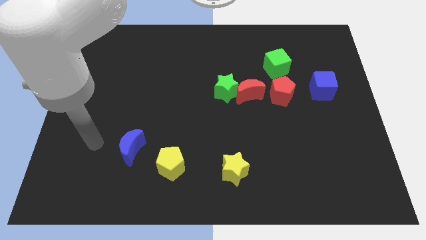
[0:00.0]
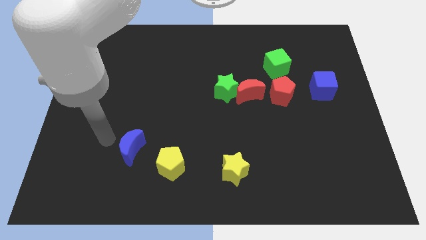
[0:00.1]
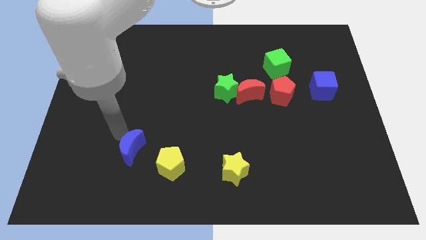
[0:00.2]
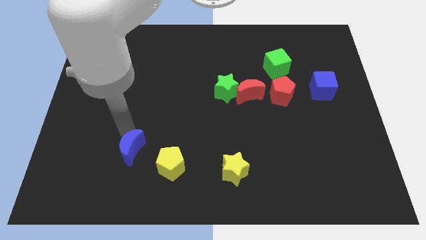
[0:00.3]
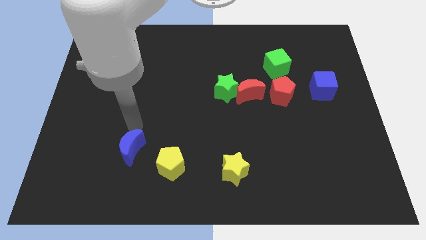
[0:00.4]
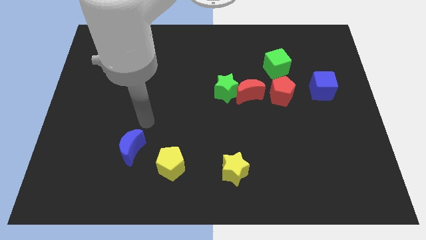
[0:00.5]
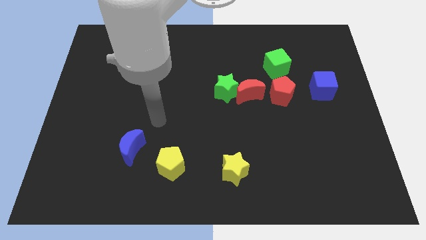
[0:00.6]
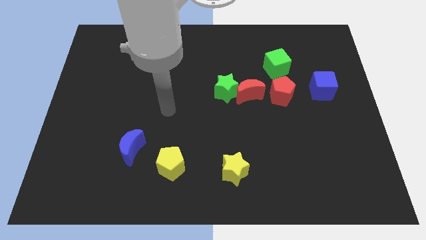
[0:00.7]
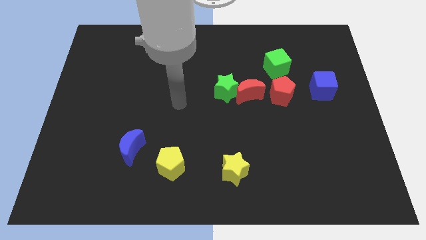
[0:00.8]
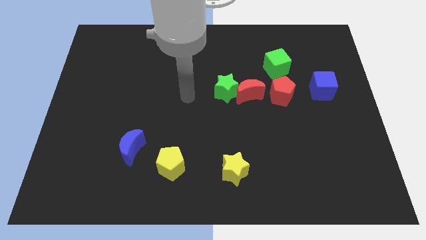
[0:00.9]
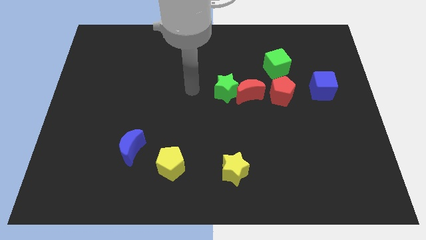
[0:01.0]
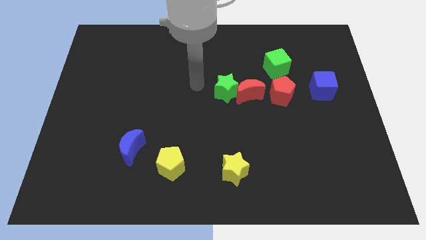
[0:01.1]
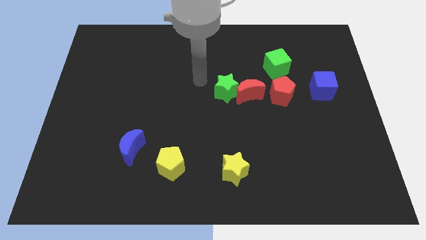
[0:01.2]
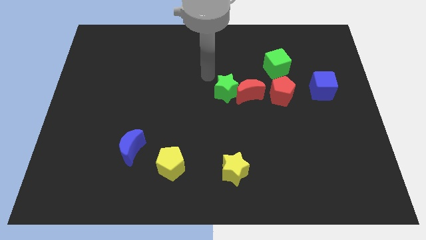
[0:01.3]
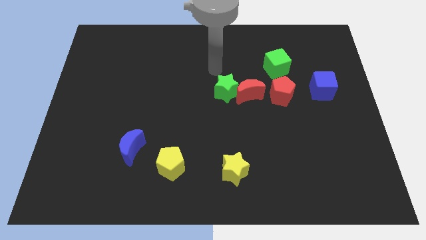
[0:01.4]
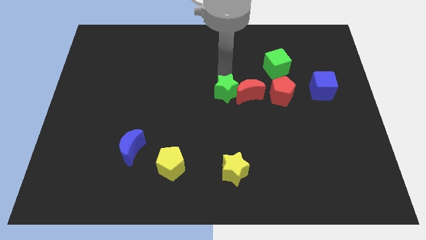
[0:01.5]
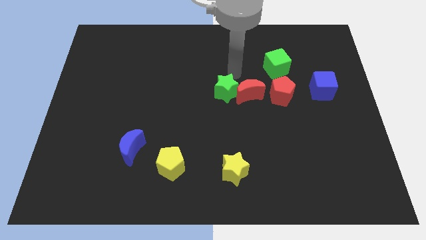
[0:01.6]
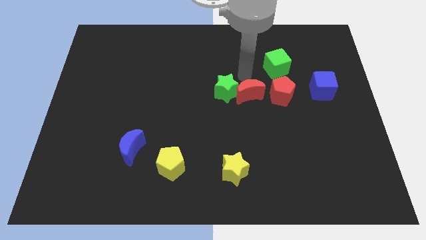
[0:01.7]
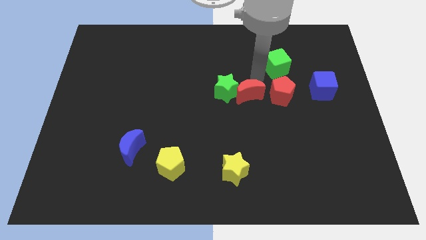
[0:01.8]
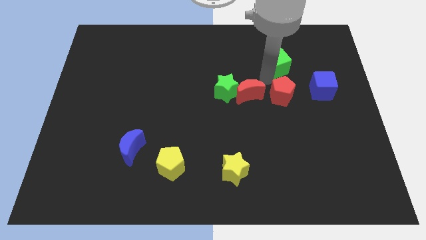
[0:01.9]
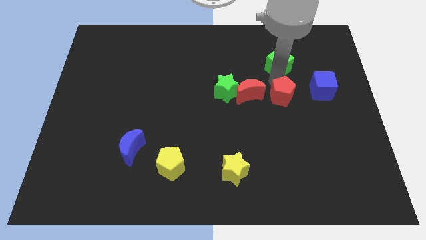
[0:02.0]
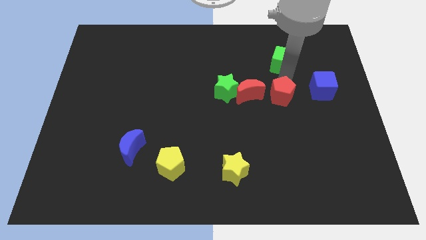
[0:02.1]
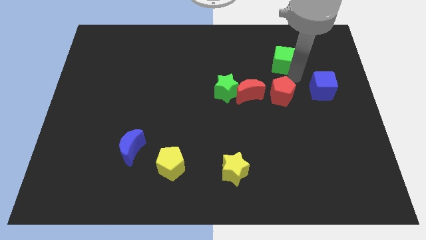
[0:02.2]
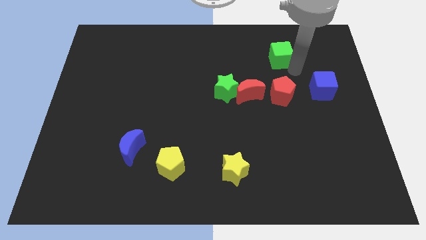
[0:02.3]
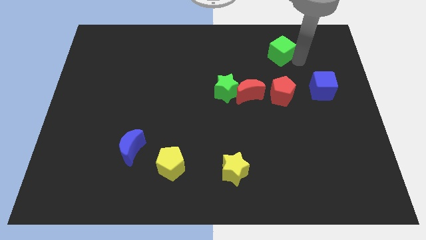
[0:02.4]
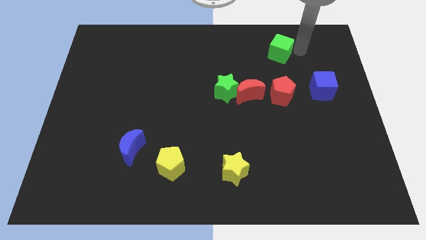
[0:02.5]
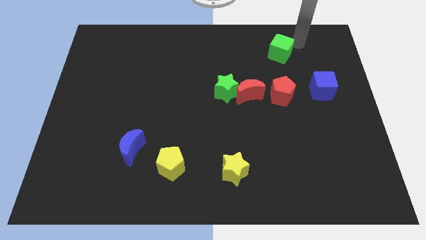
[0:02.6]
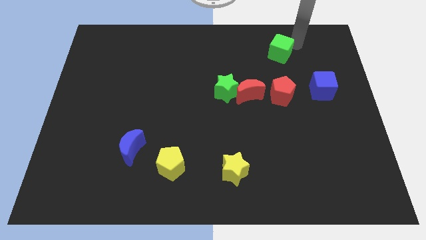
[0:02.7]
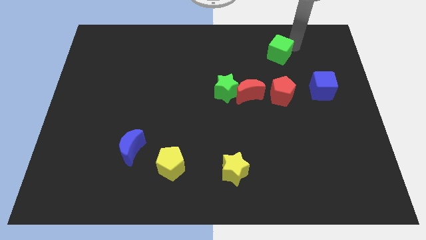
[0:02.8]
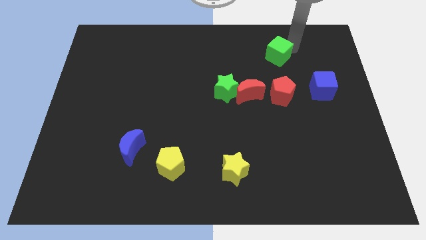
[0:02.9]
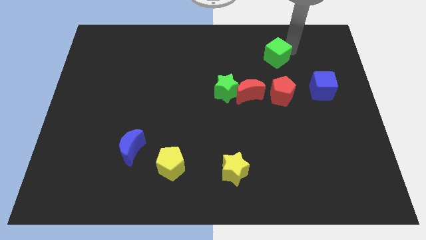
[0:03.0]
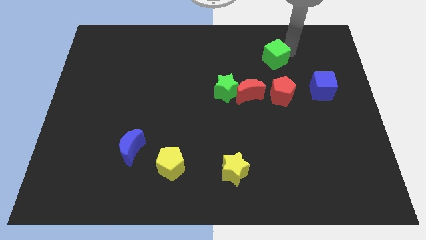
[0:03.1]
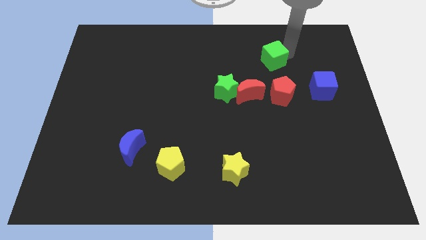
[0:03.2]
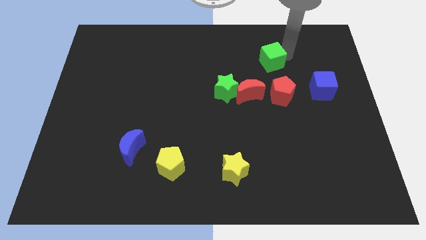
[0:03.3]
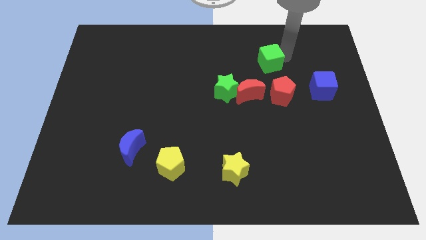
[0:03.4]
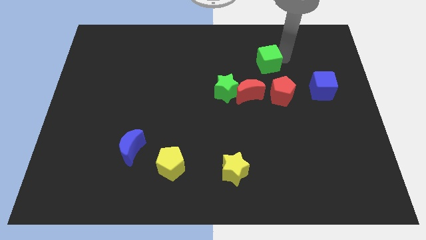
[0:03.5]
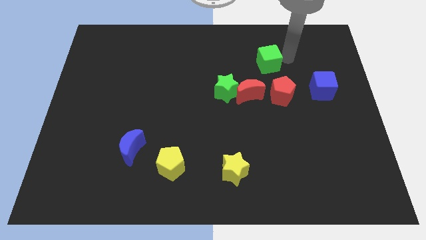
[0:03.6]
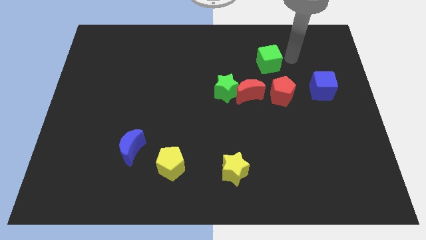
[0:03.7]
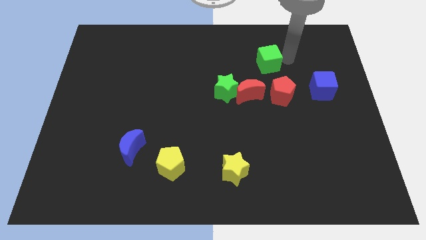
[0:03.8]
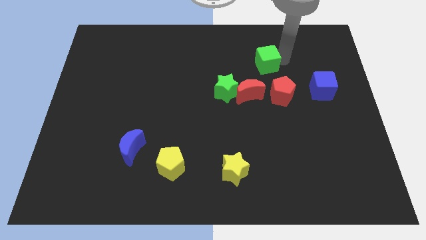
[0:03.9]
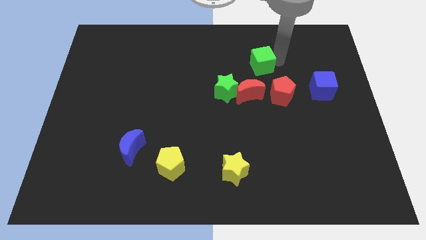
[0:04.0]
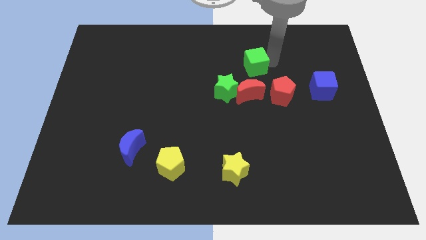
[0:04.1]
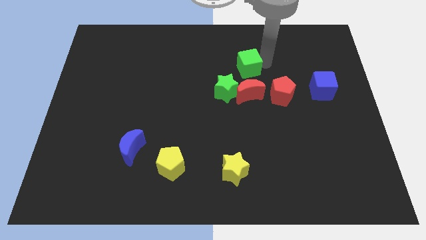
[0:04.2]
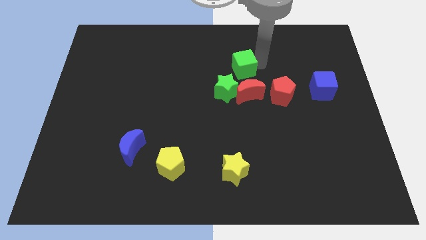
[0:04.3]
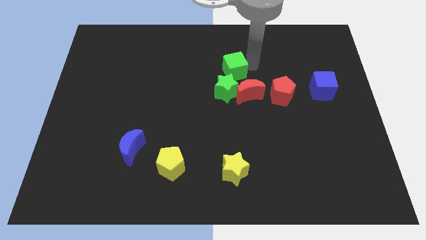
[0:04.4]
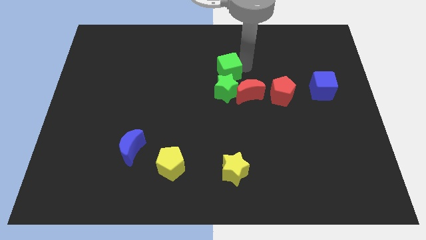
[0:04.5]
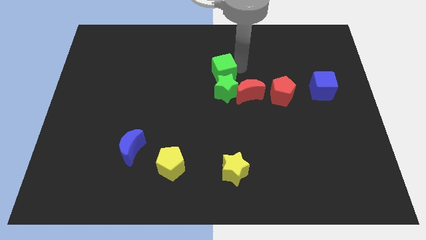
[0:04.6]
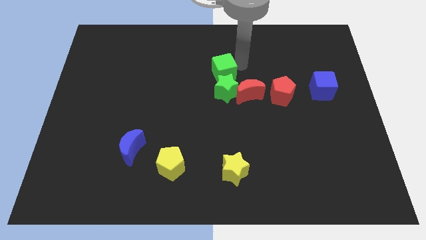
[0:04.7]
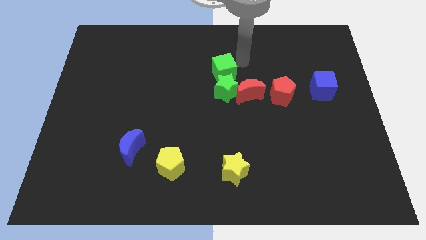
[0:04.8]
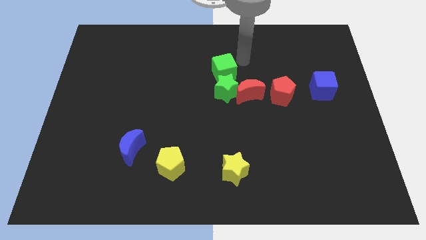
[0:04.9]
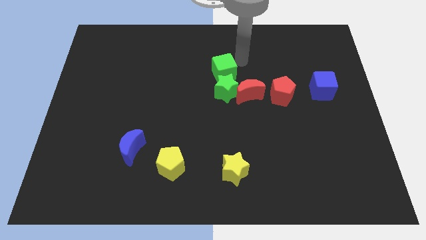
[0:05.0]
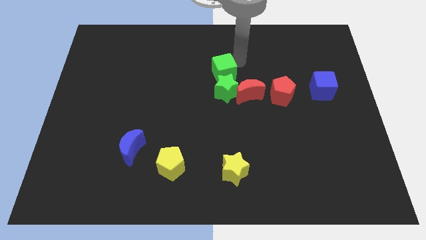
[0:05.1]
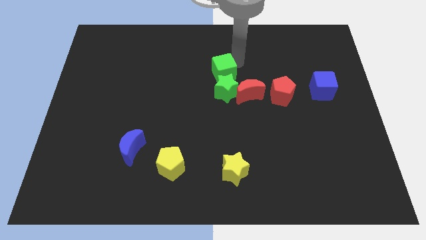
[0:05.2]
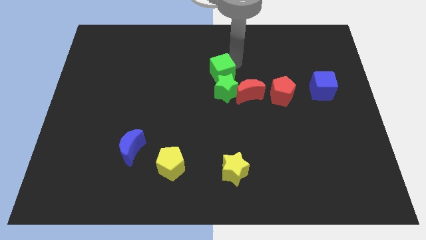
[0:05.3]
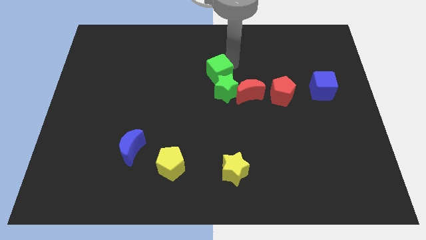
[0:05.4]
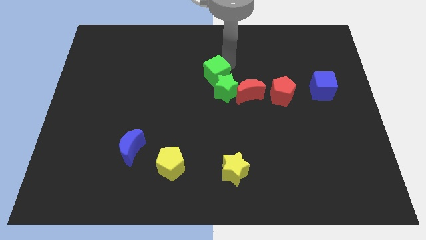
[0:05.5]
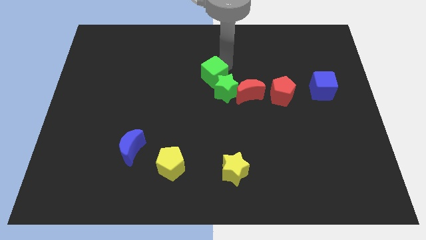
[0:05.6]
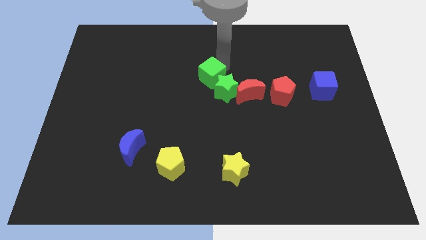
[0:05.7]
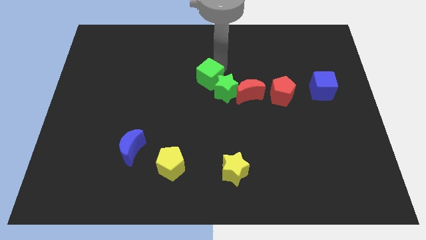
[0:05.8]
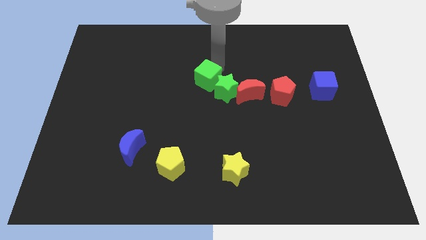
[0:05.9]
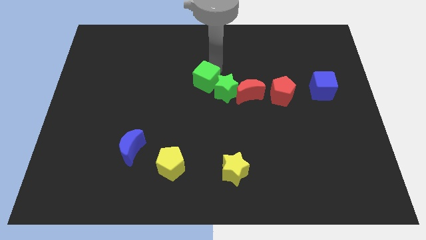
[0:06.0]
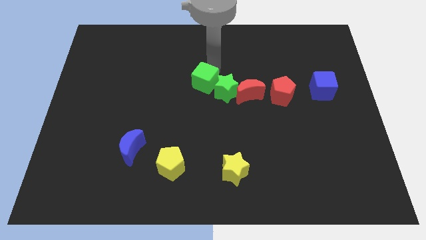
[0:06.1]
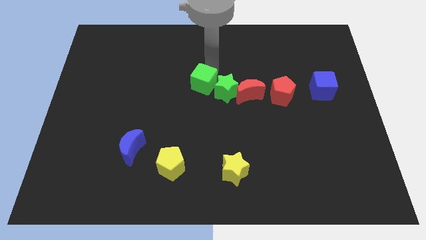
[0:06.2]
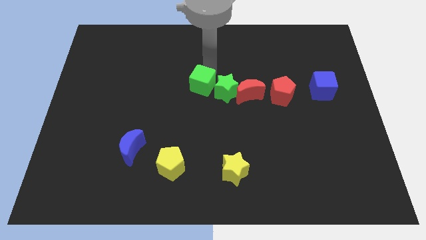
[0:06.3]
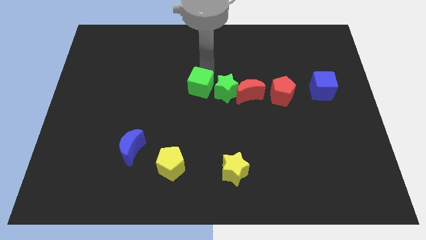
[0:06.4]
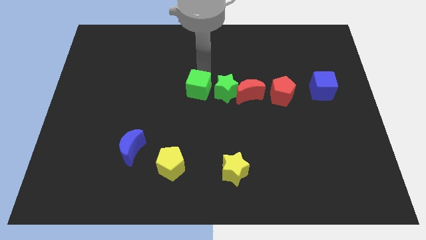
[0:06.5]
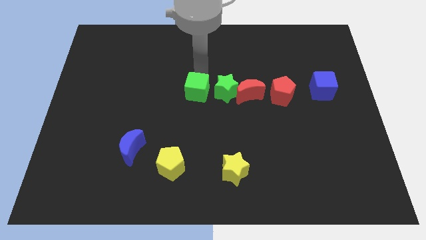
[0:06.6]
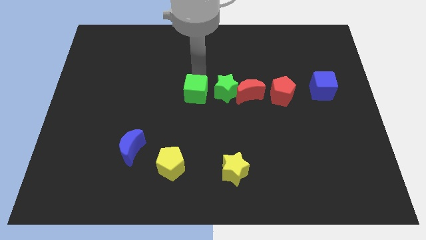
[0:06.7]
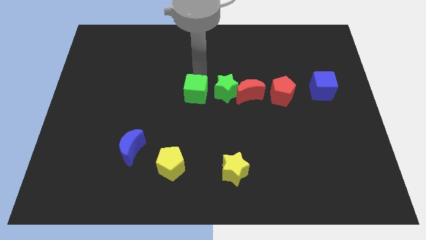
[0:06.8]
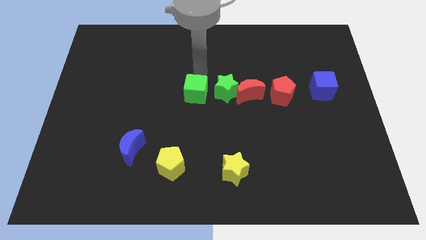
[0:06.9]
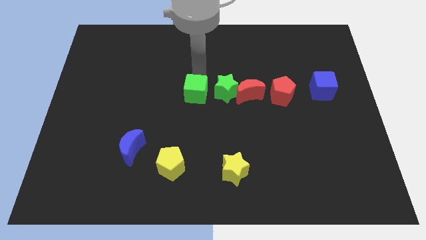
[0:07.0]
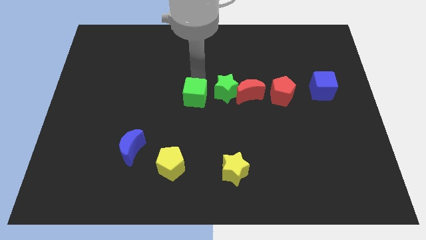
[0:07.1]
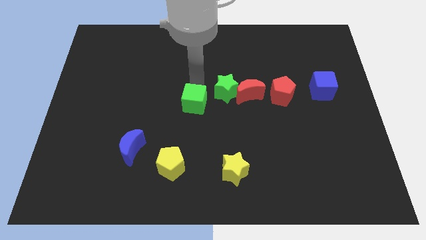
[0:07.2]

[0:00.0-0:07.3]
slide the green cube down and then left

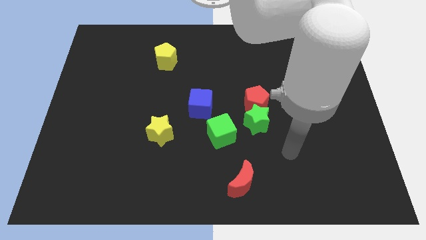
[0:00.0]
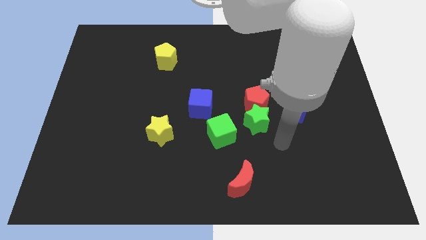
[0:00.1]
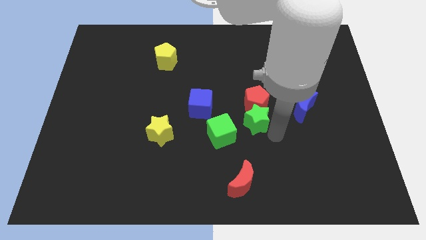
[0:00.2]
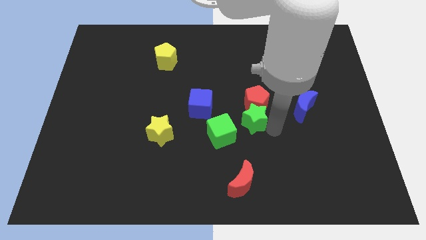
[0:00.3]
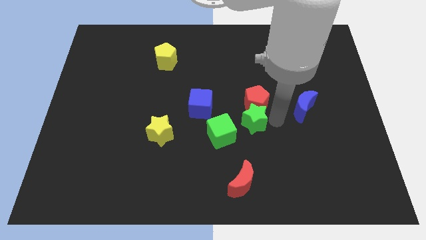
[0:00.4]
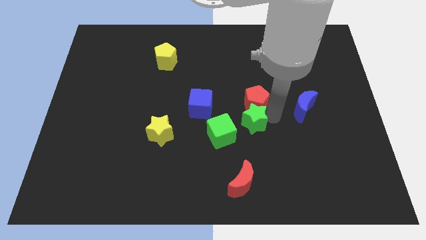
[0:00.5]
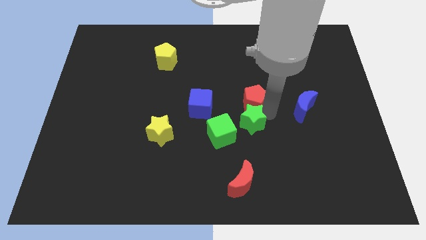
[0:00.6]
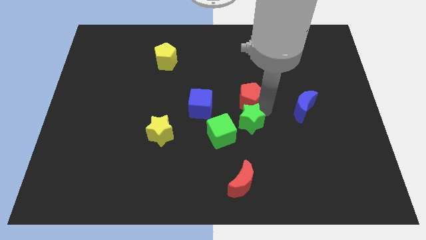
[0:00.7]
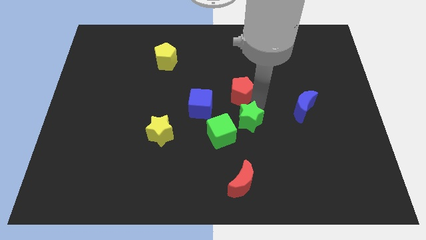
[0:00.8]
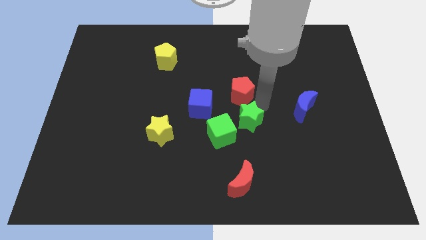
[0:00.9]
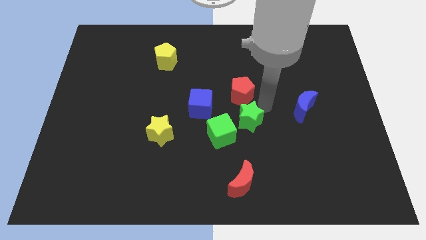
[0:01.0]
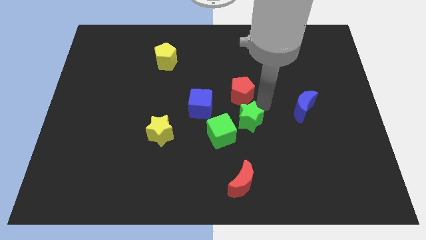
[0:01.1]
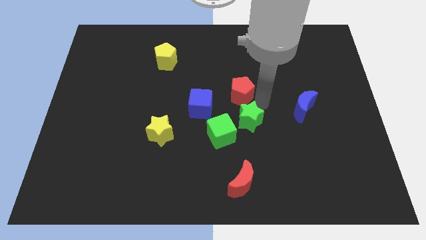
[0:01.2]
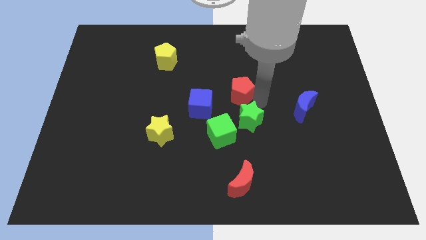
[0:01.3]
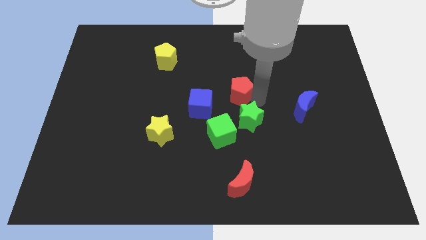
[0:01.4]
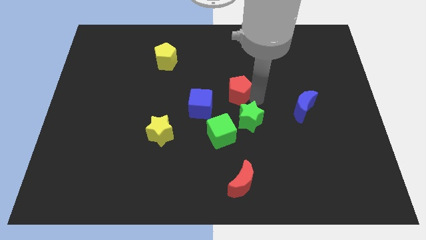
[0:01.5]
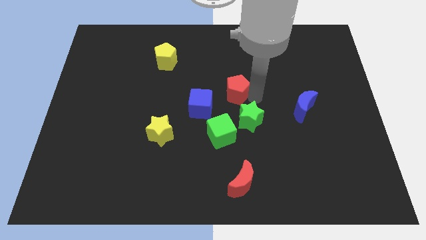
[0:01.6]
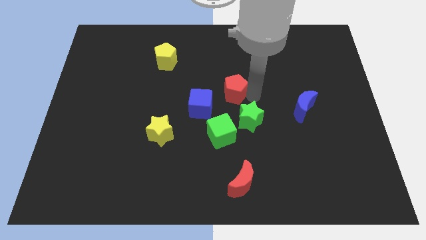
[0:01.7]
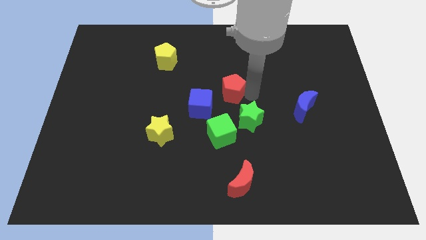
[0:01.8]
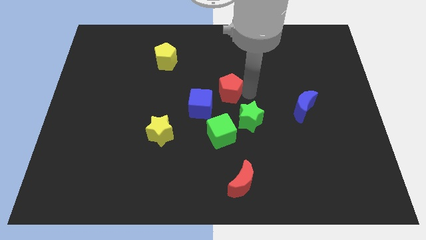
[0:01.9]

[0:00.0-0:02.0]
slide the red pentagon slightly diagonally up and to the left
